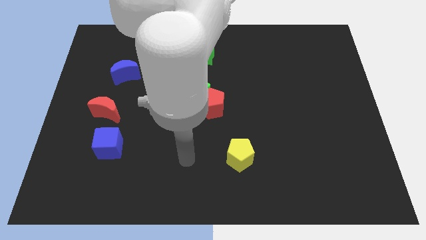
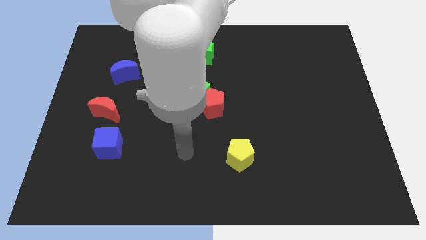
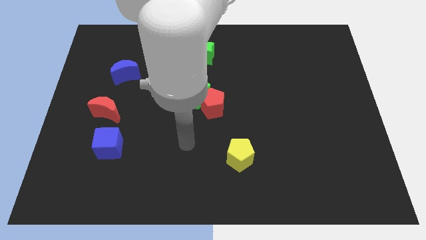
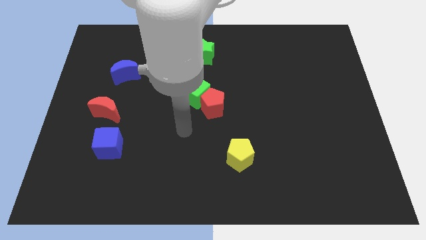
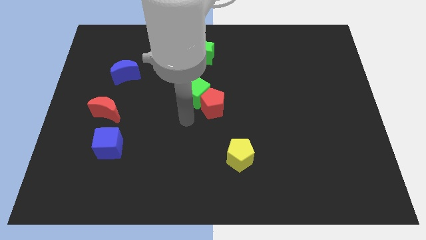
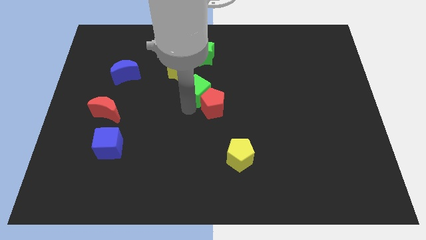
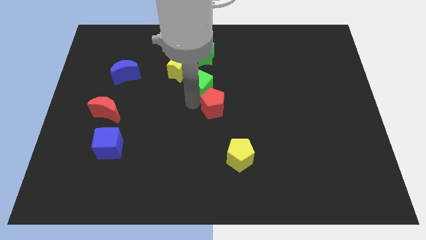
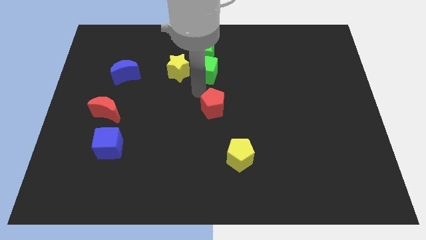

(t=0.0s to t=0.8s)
move the red pentagon away from the green cube

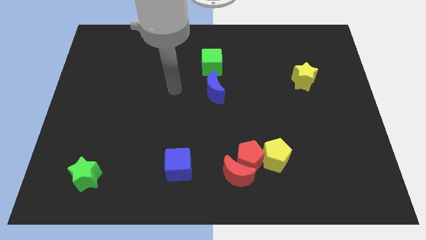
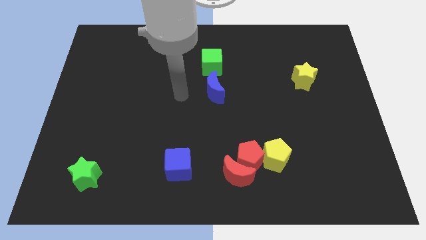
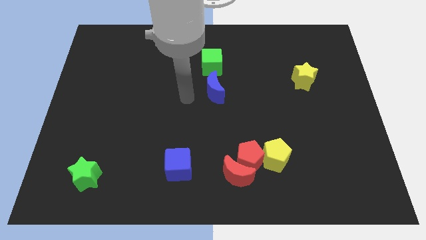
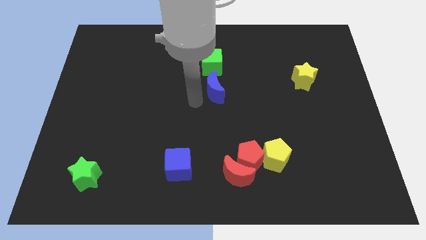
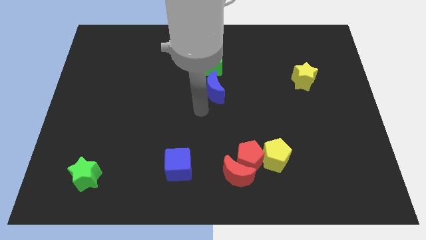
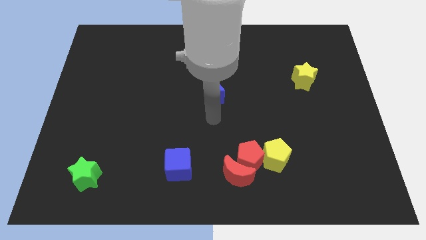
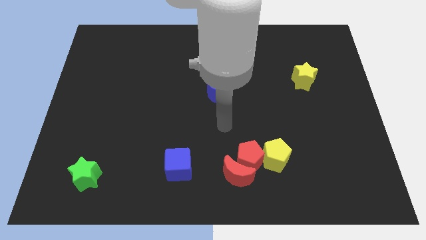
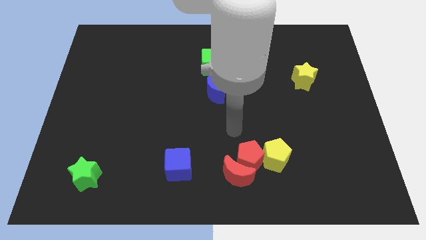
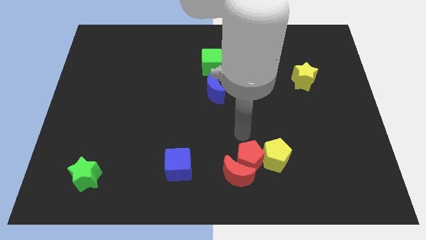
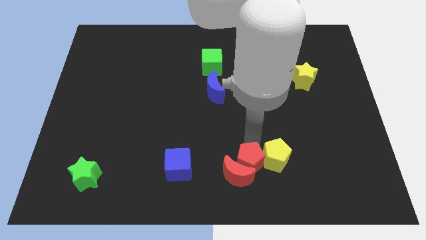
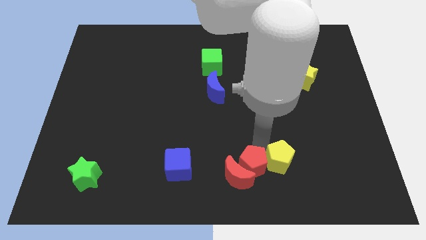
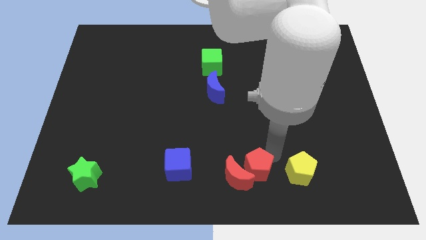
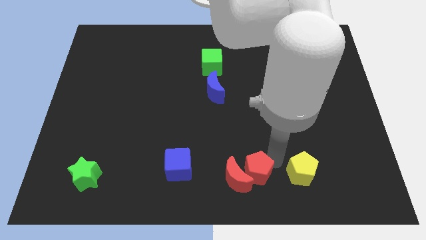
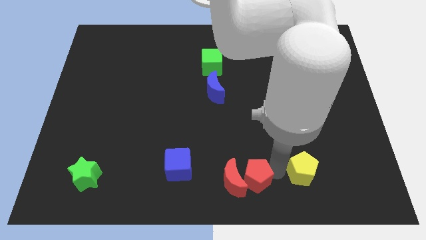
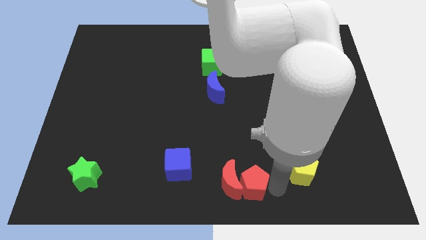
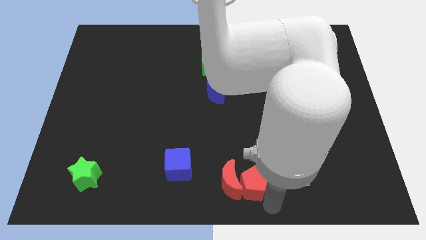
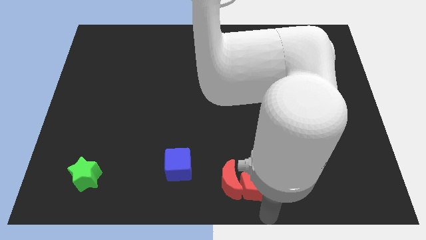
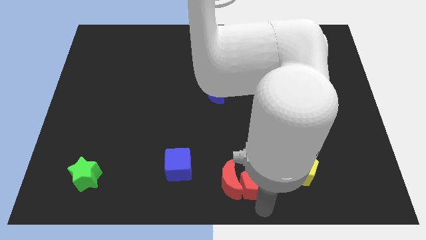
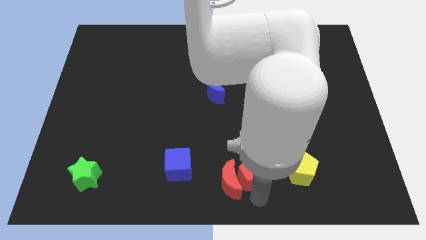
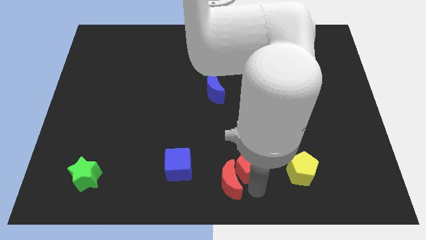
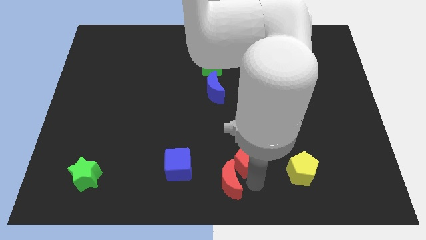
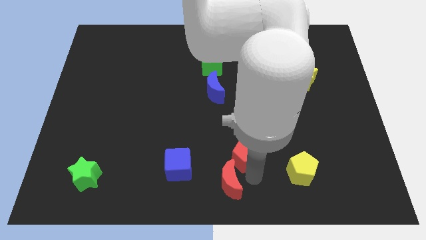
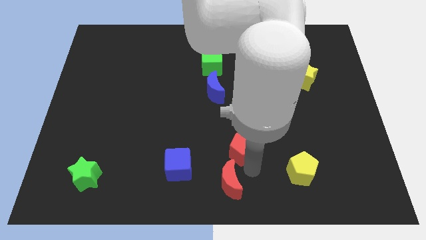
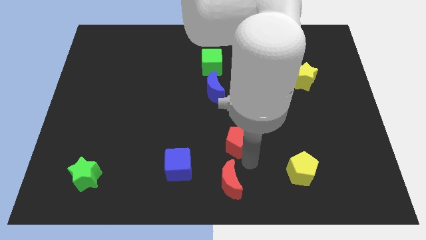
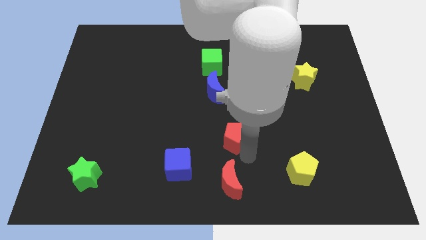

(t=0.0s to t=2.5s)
separate the red pentagon from the red moon and yellow pentagon

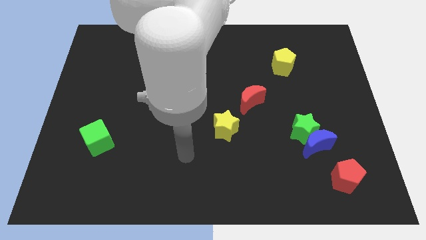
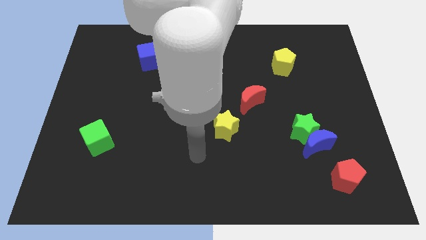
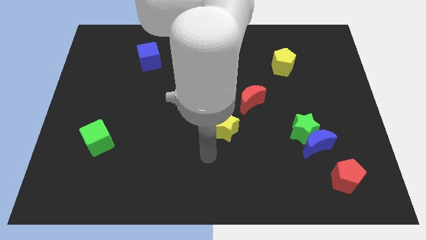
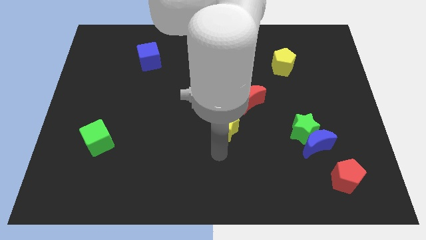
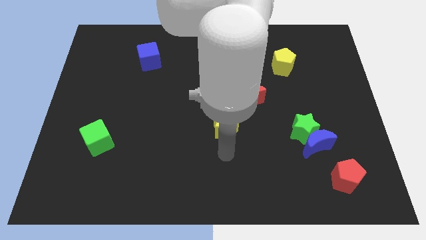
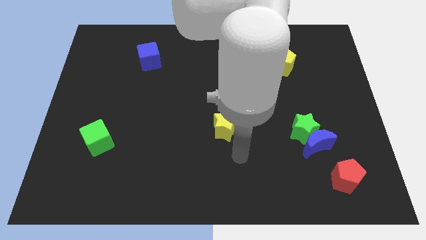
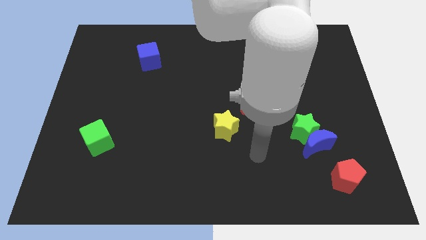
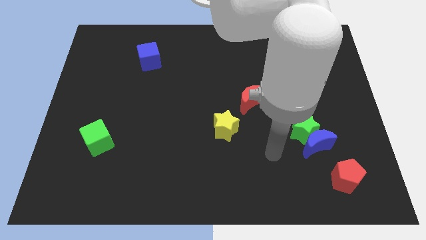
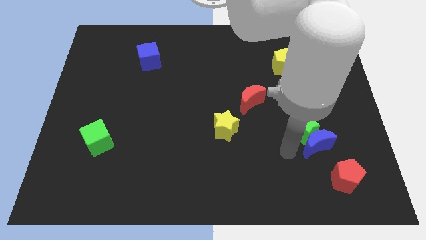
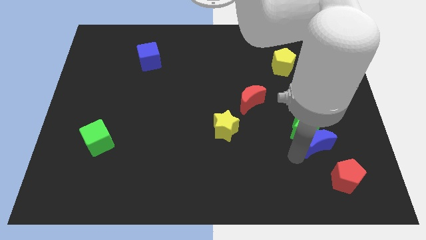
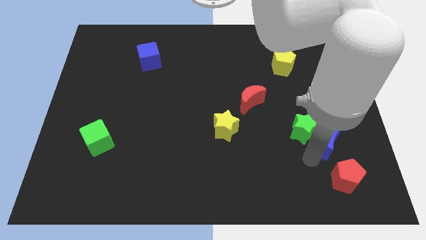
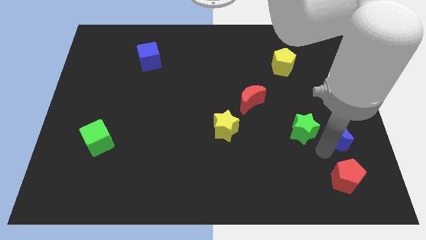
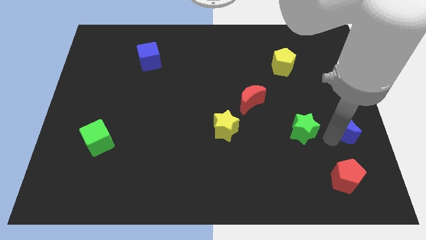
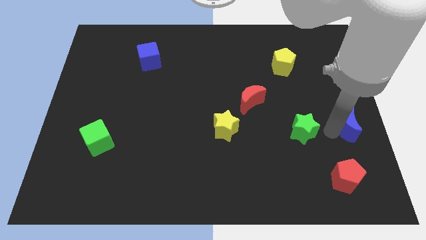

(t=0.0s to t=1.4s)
move the green star away from the blue moon

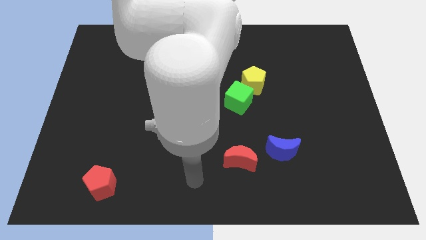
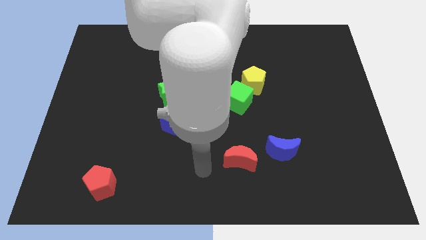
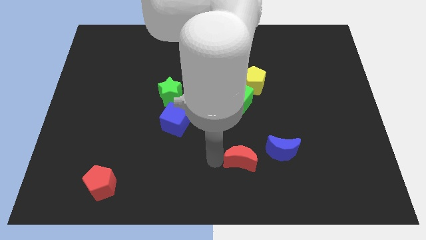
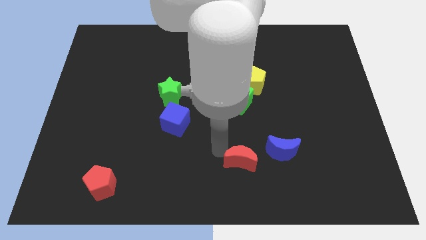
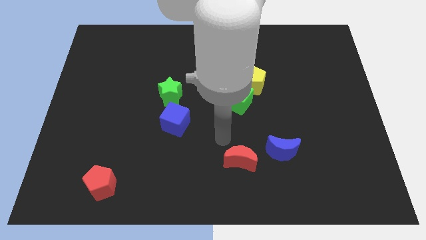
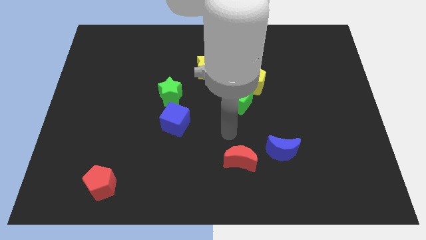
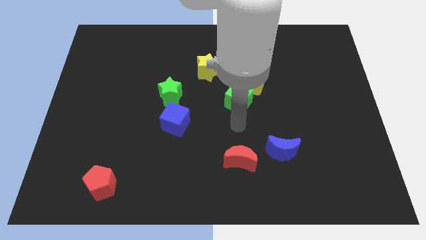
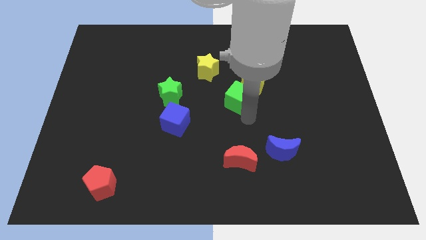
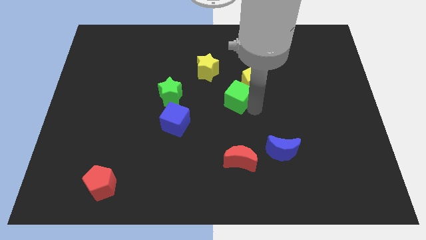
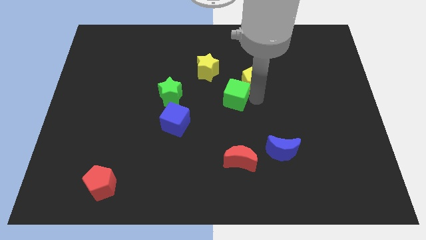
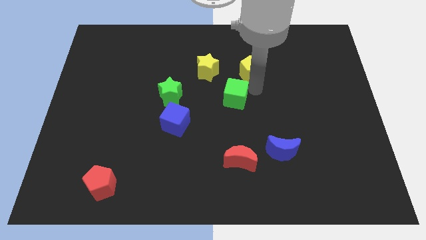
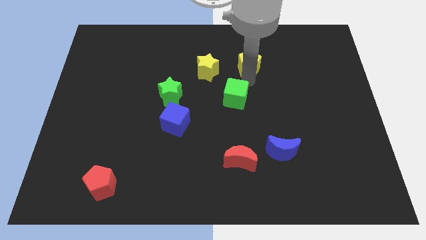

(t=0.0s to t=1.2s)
pull the green cube apart from the yellow pentagon

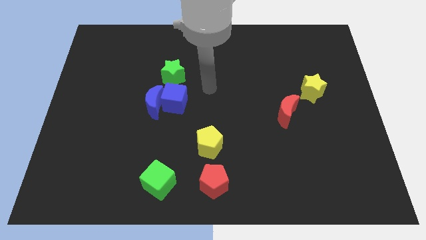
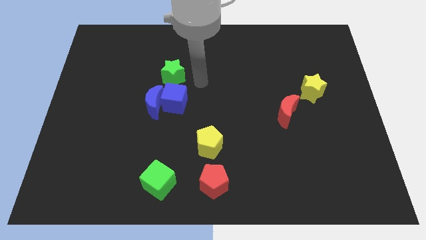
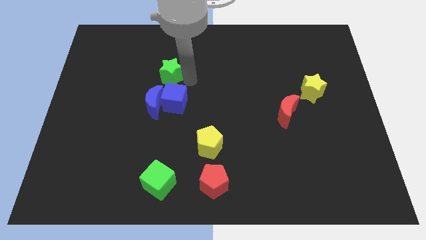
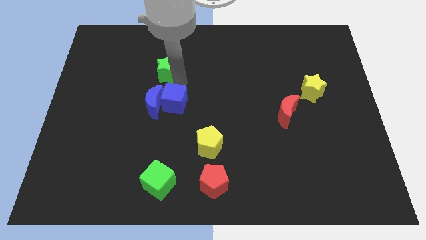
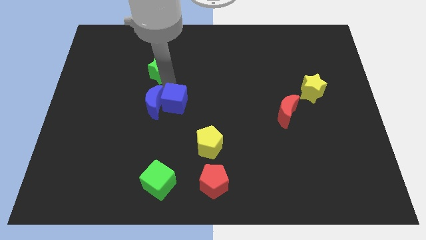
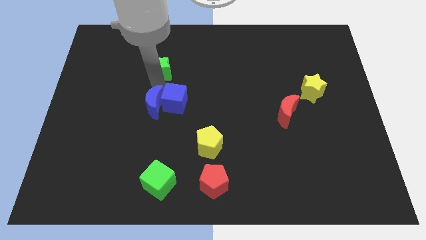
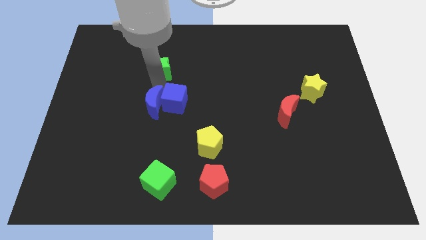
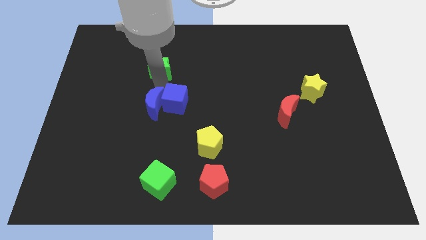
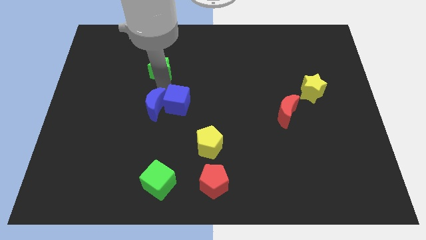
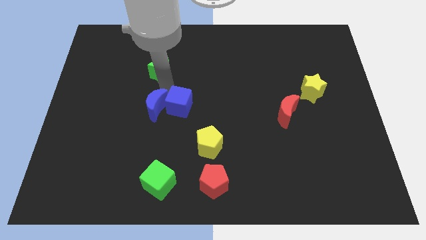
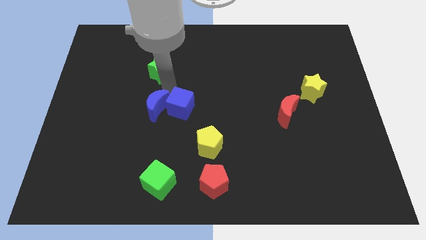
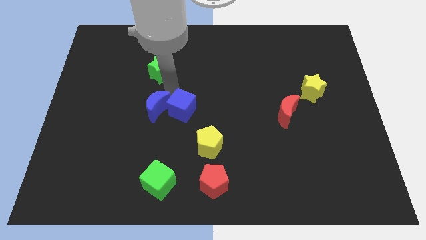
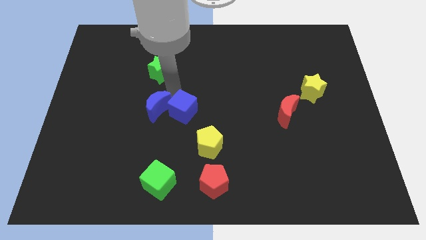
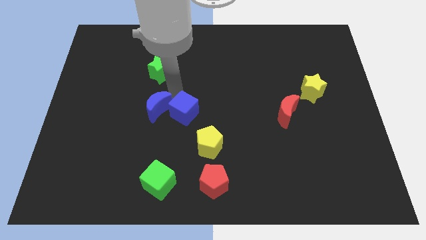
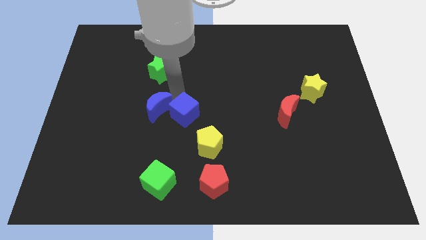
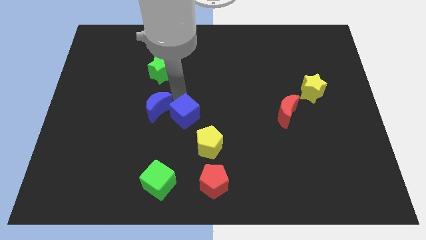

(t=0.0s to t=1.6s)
separate the blue cube from the blue moon and green star

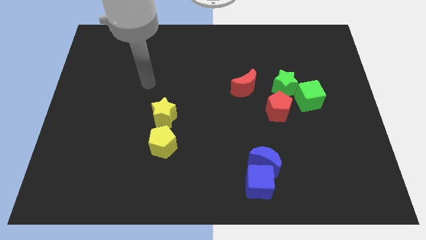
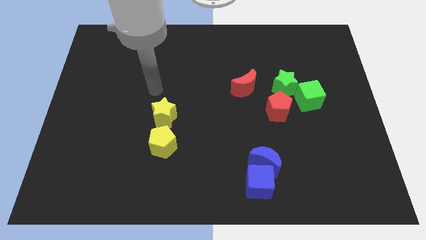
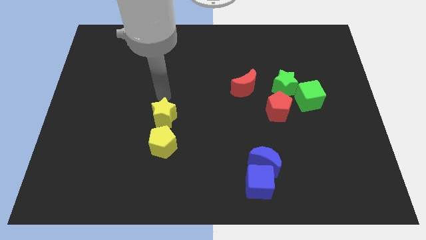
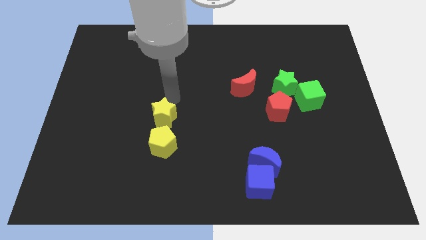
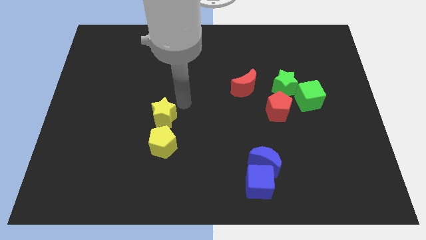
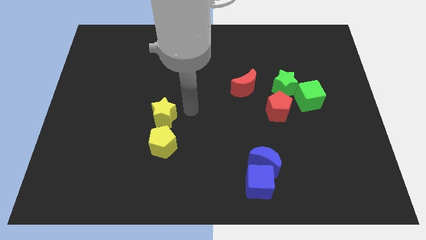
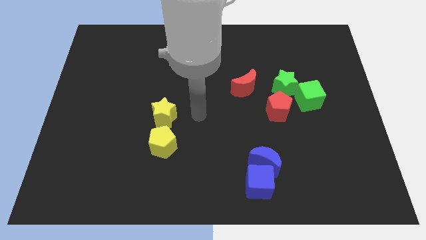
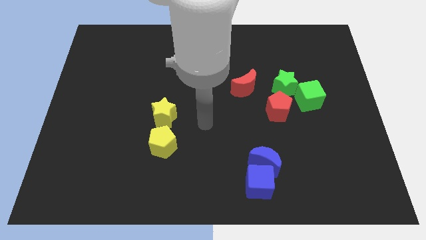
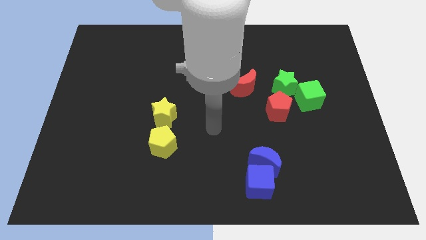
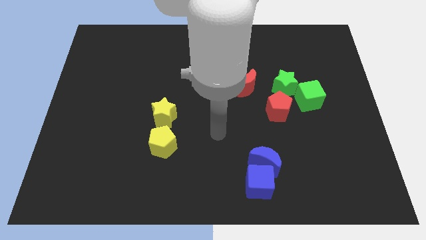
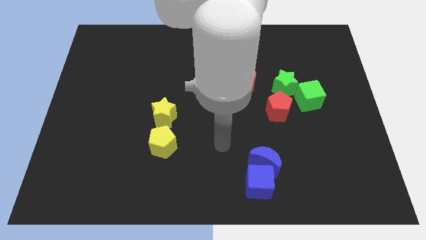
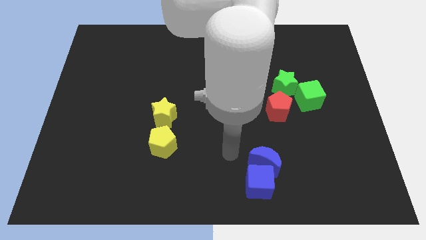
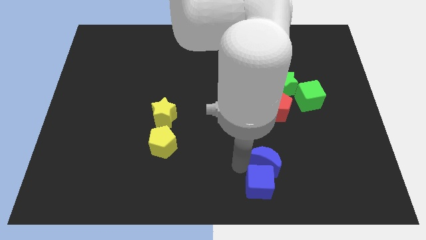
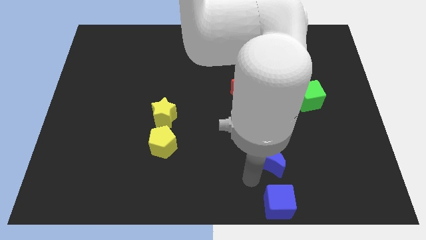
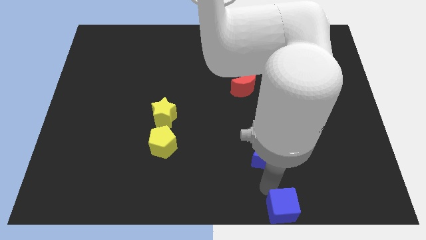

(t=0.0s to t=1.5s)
move the blue moon away from the blue cube

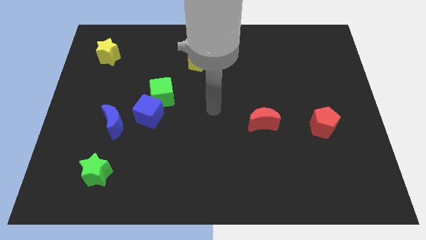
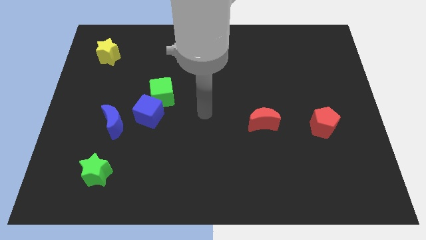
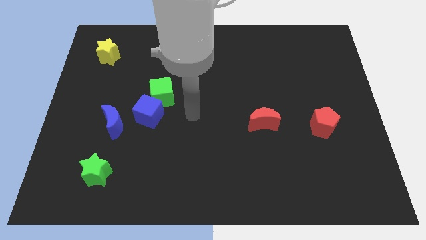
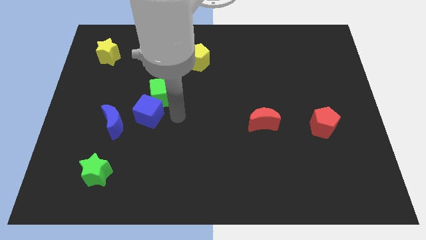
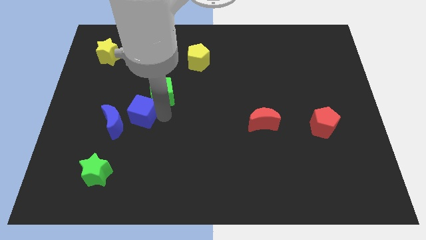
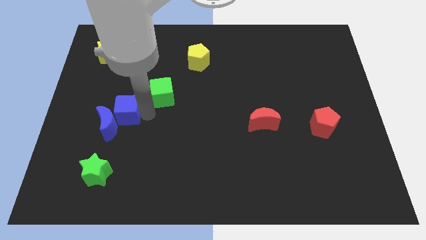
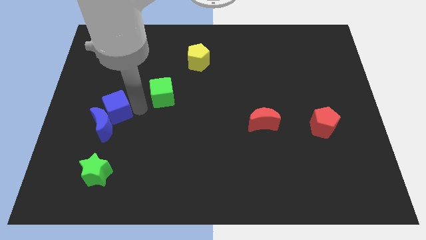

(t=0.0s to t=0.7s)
pull the green cube apart from the blue cube
